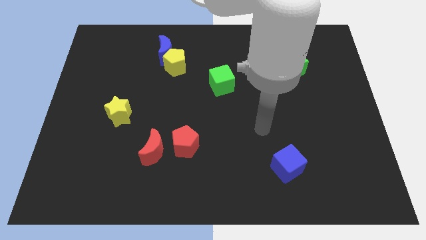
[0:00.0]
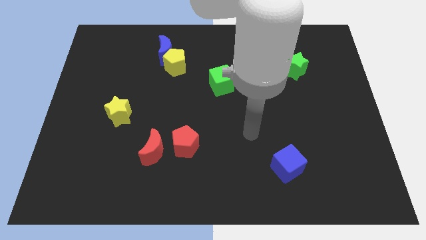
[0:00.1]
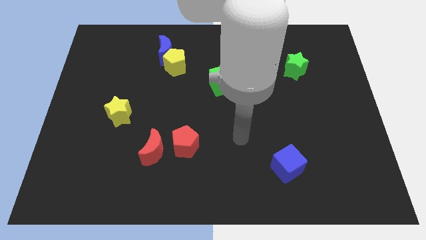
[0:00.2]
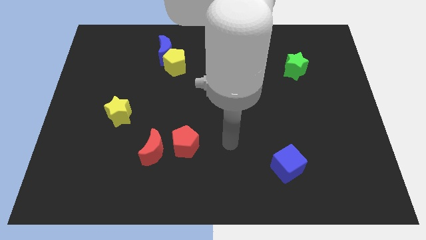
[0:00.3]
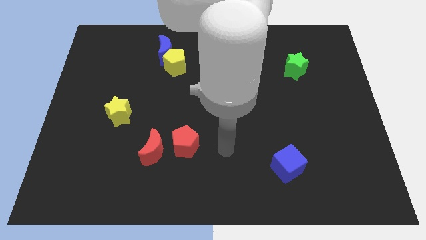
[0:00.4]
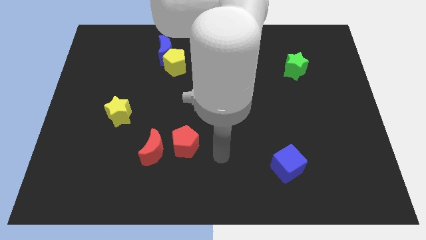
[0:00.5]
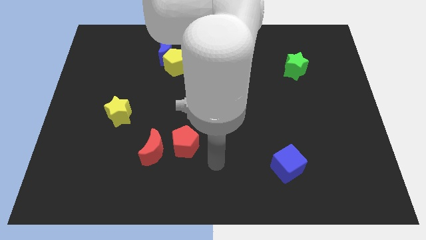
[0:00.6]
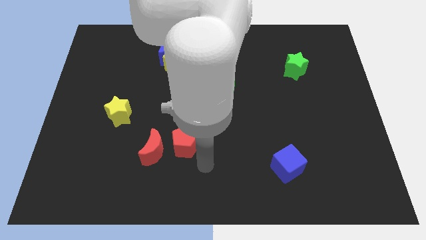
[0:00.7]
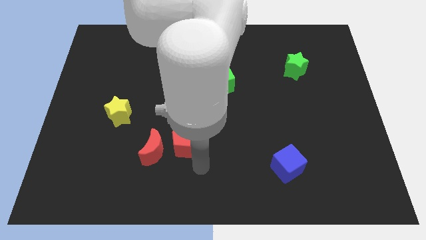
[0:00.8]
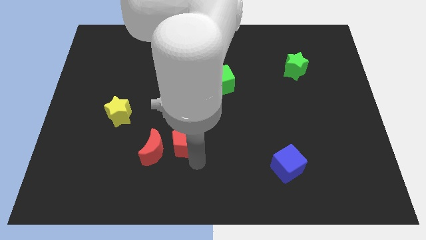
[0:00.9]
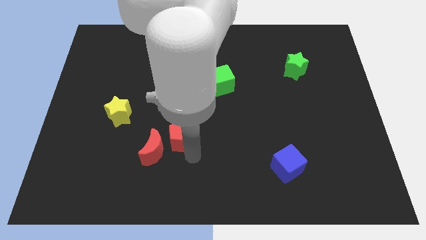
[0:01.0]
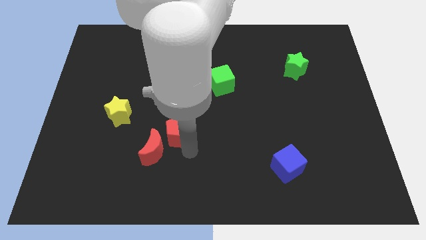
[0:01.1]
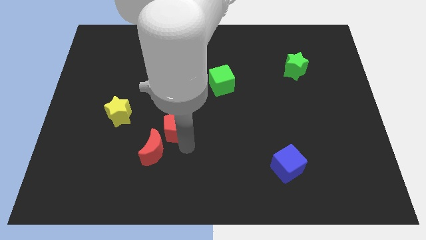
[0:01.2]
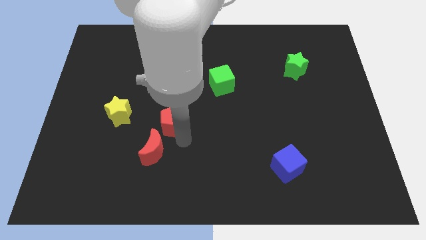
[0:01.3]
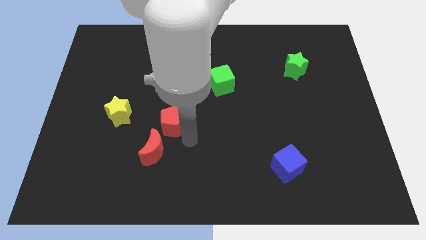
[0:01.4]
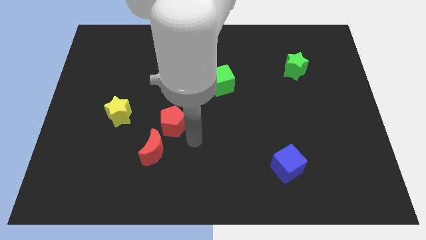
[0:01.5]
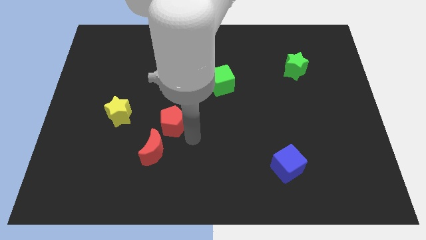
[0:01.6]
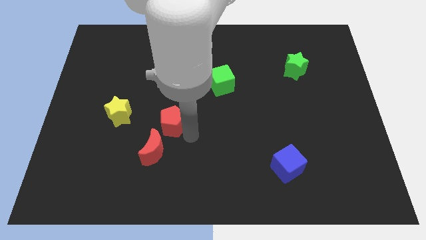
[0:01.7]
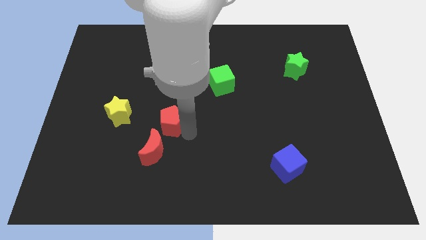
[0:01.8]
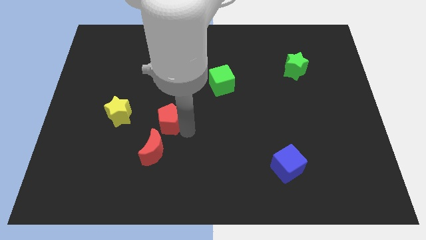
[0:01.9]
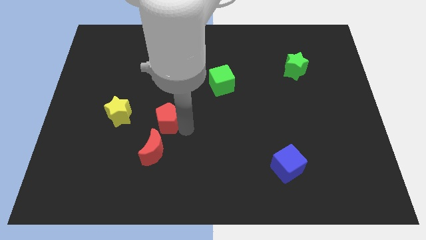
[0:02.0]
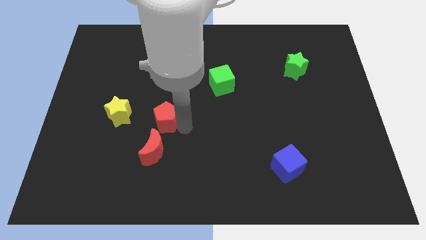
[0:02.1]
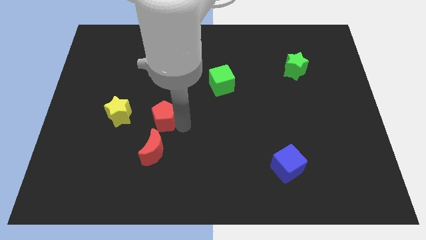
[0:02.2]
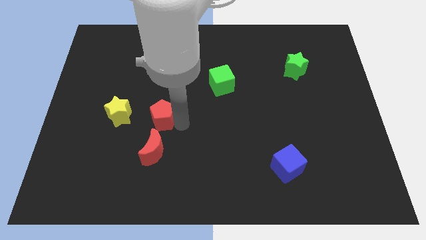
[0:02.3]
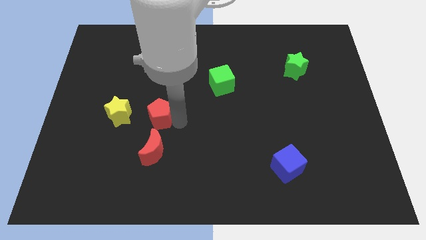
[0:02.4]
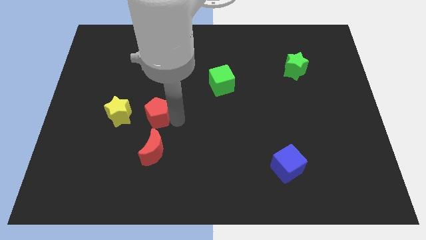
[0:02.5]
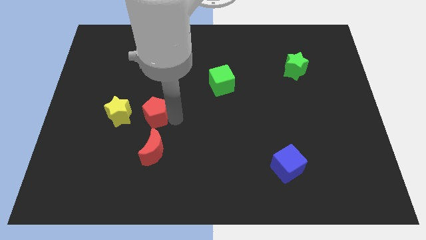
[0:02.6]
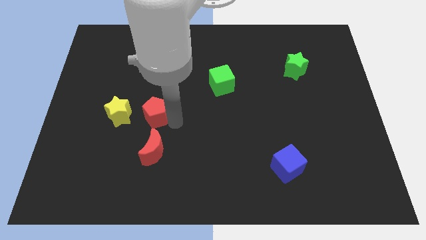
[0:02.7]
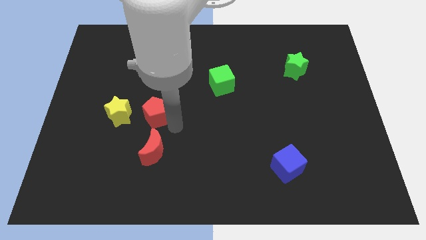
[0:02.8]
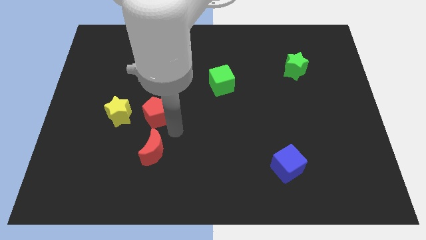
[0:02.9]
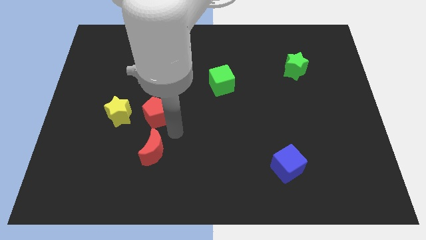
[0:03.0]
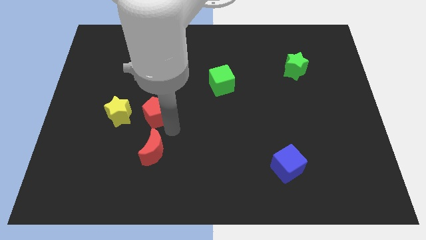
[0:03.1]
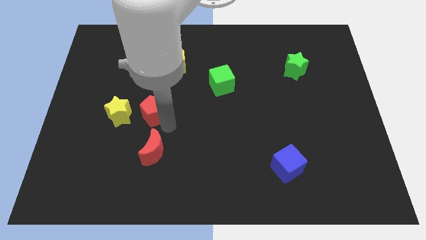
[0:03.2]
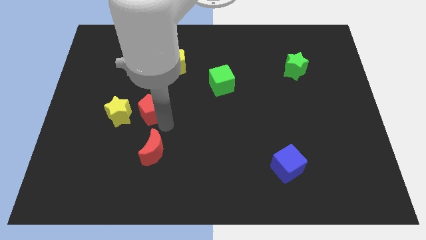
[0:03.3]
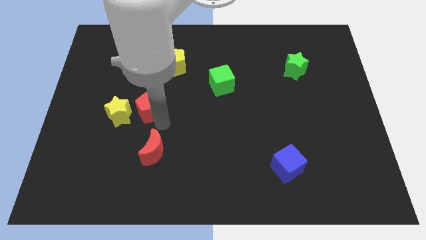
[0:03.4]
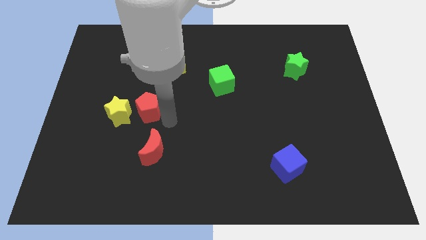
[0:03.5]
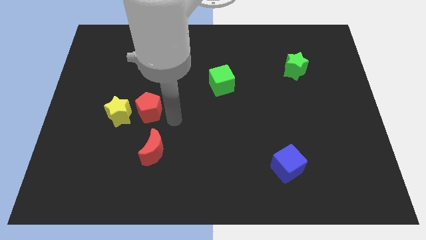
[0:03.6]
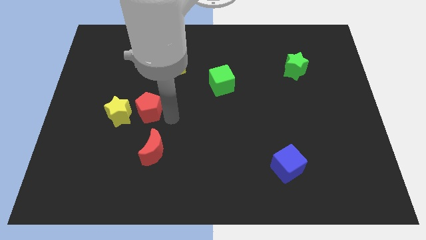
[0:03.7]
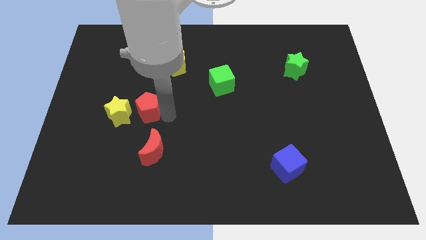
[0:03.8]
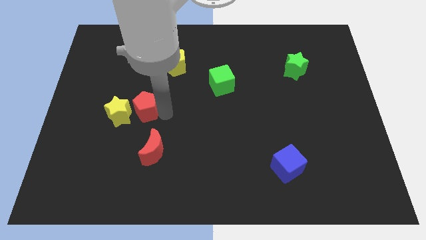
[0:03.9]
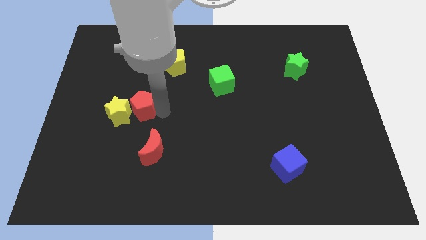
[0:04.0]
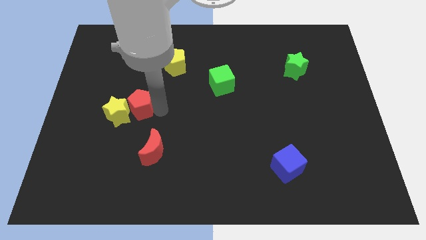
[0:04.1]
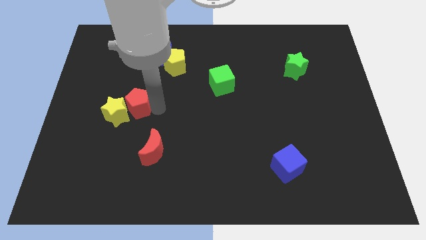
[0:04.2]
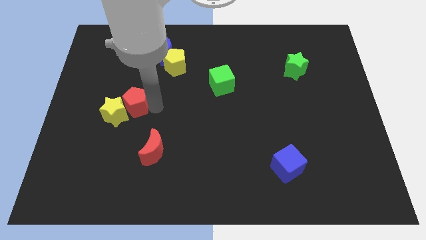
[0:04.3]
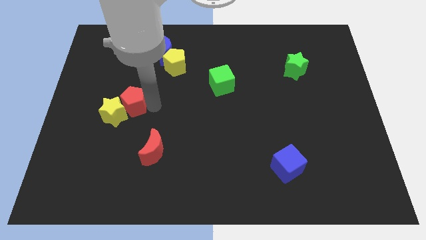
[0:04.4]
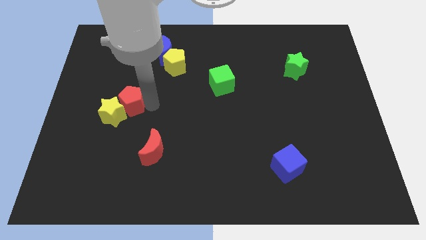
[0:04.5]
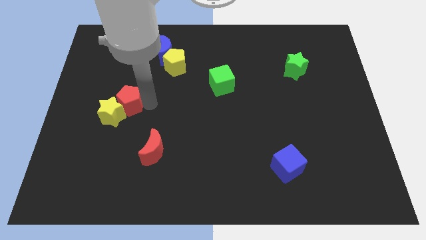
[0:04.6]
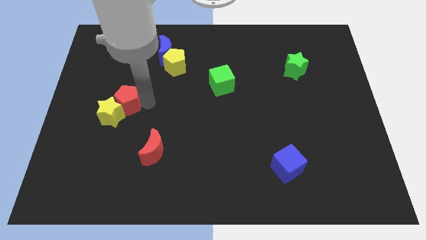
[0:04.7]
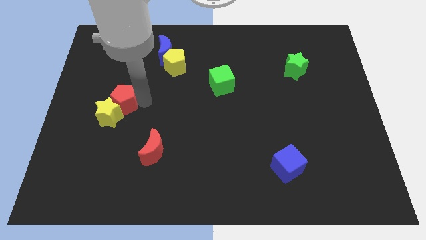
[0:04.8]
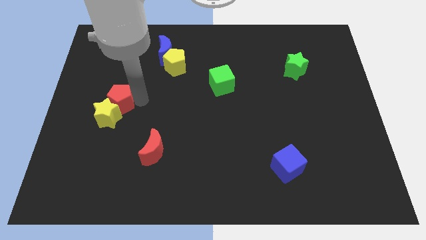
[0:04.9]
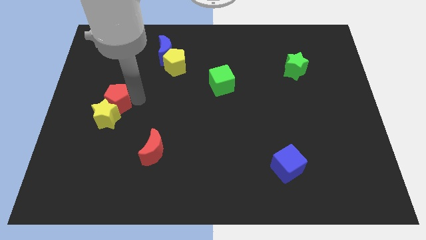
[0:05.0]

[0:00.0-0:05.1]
move the red pentagon to the top left side of the yellow star

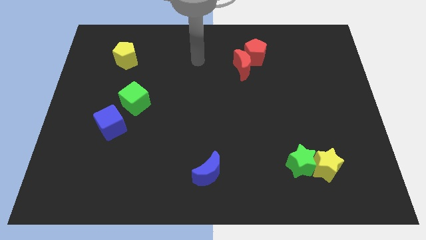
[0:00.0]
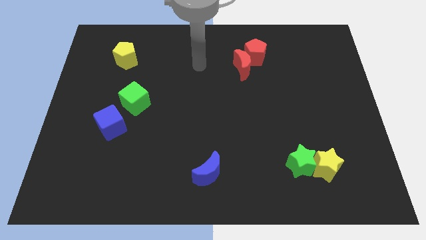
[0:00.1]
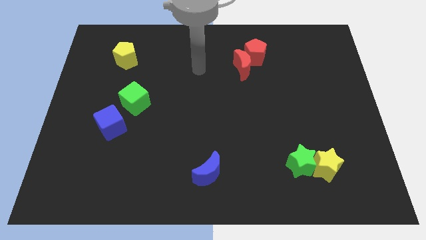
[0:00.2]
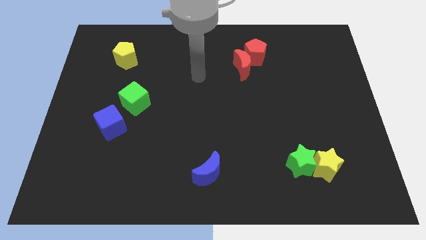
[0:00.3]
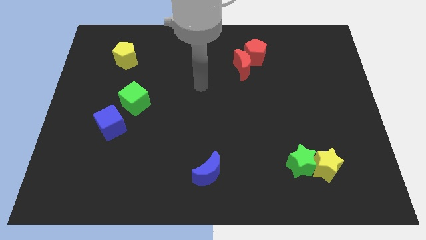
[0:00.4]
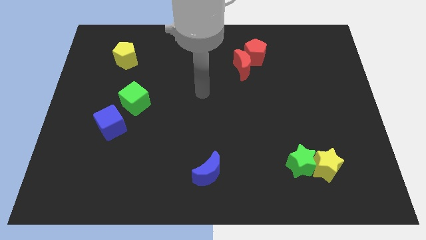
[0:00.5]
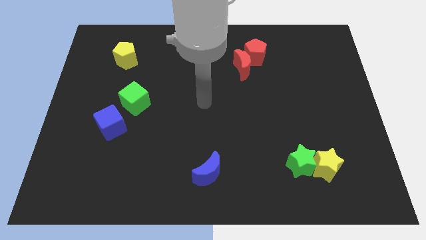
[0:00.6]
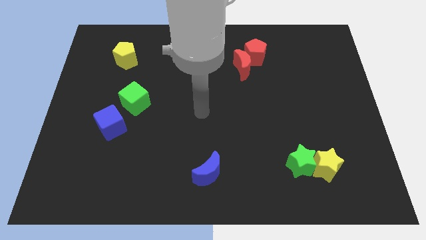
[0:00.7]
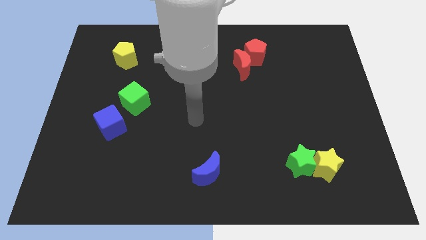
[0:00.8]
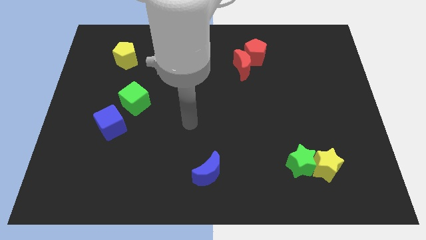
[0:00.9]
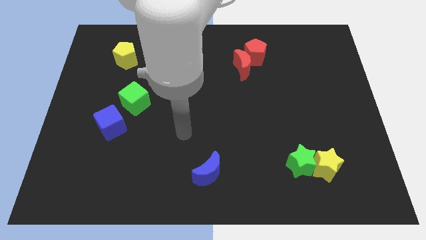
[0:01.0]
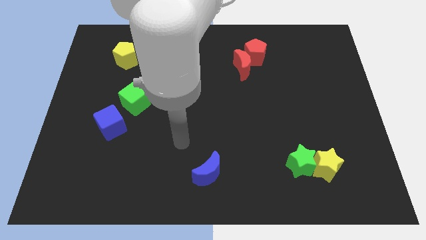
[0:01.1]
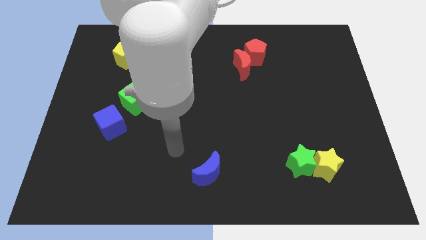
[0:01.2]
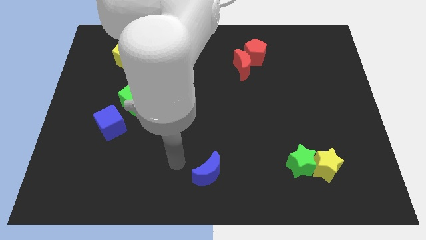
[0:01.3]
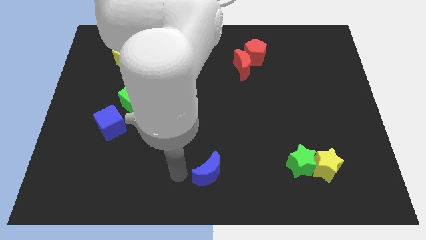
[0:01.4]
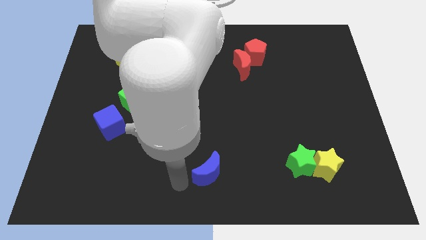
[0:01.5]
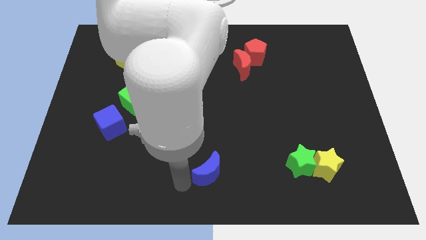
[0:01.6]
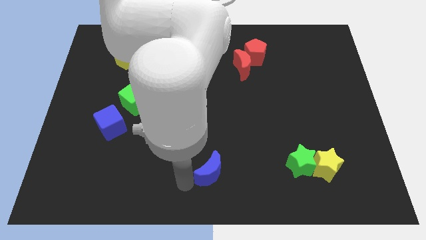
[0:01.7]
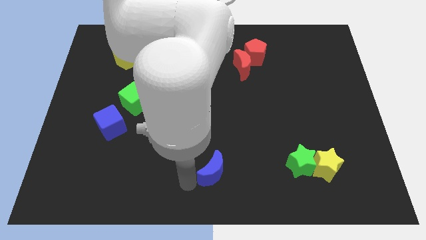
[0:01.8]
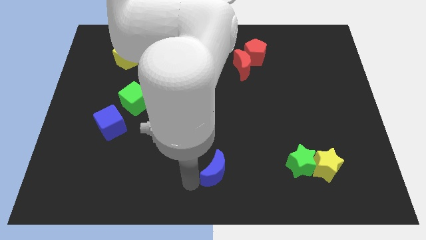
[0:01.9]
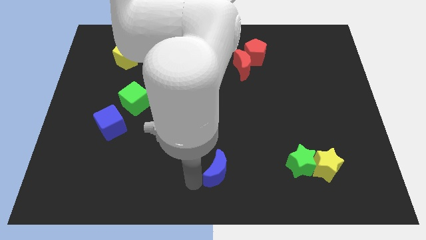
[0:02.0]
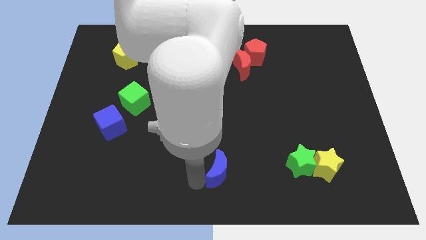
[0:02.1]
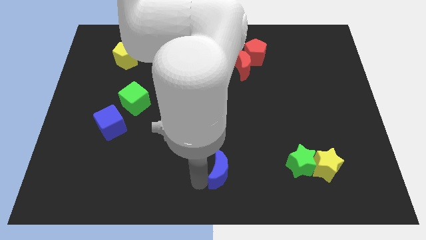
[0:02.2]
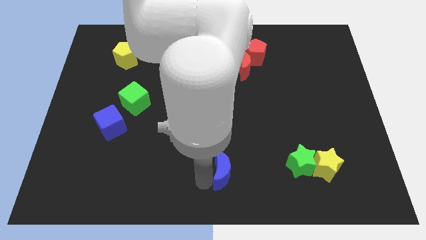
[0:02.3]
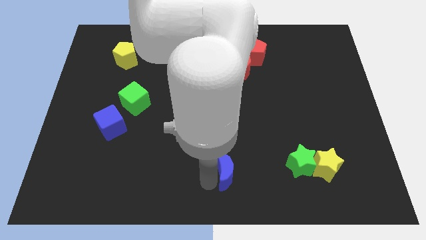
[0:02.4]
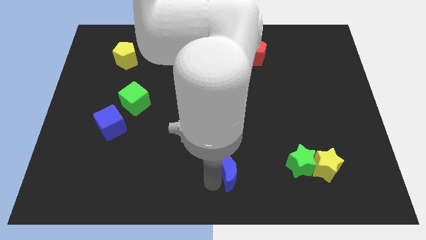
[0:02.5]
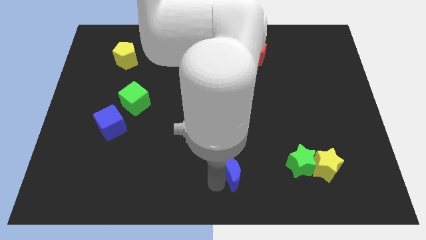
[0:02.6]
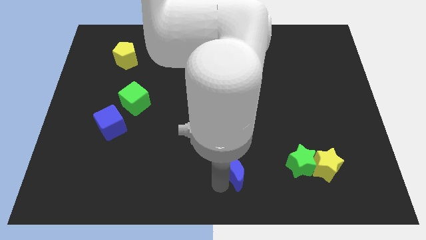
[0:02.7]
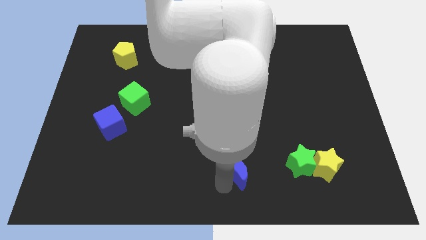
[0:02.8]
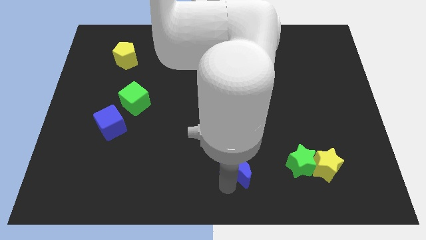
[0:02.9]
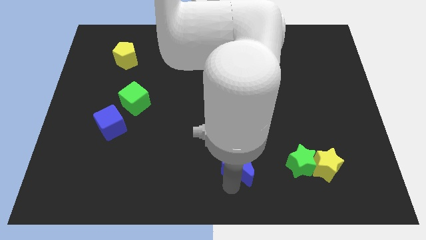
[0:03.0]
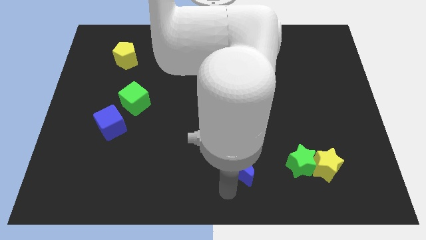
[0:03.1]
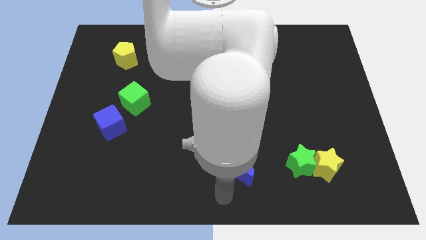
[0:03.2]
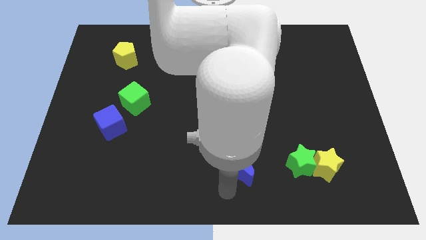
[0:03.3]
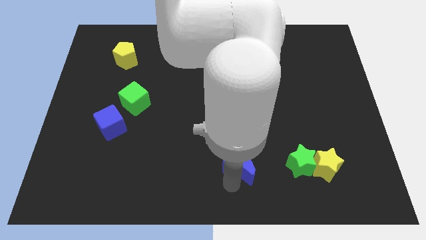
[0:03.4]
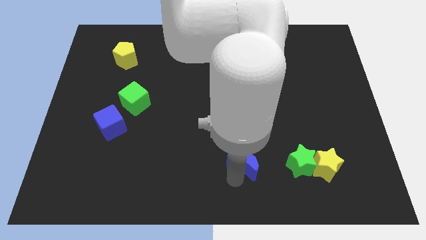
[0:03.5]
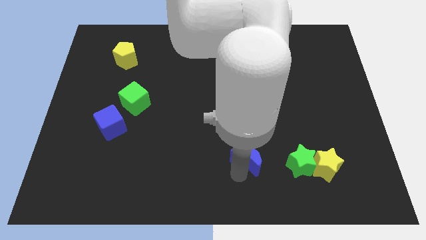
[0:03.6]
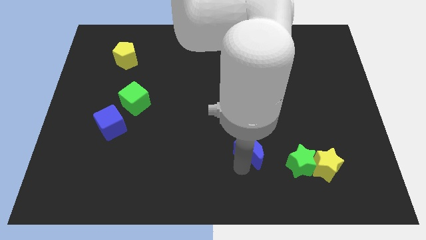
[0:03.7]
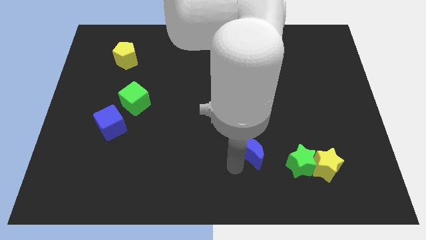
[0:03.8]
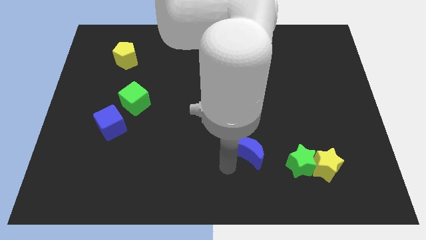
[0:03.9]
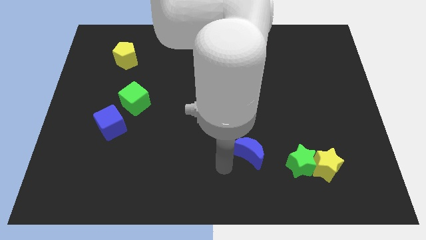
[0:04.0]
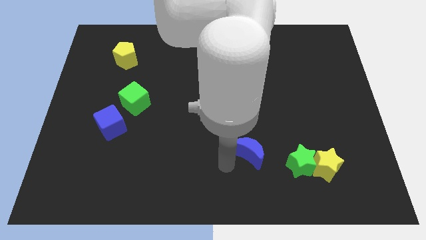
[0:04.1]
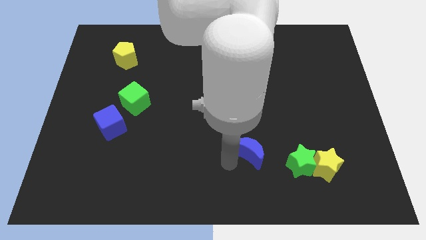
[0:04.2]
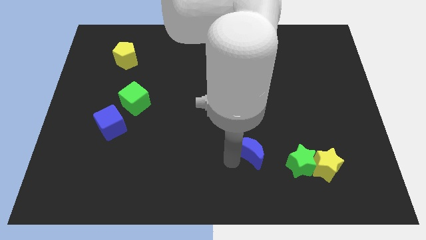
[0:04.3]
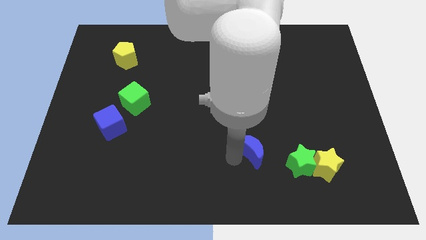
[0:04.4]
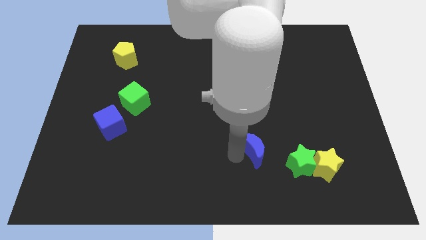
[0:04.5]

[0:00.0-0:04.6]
move the blue moon to the top left side of the green star
